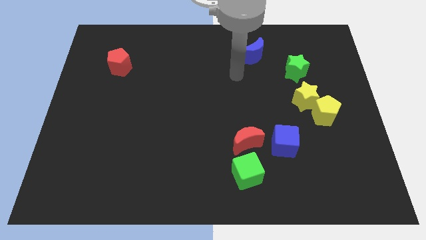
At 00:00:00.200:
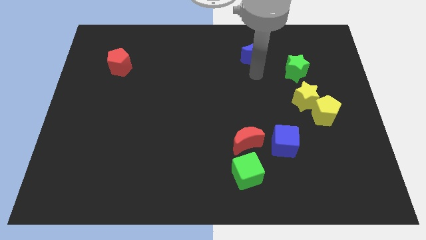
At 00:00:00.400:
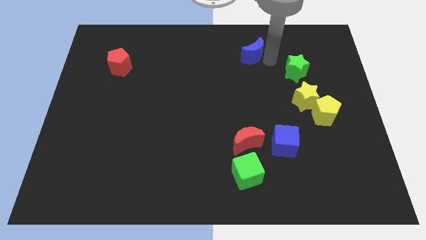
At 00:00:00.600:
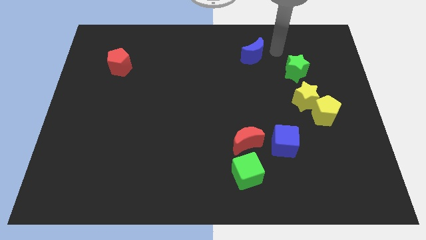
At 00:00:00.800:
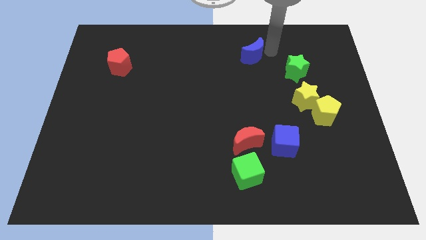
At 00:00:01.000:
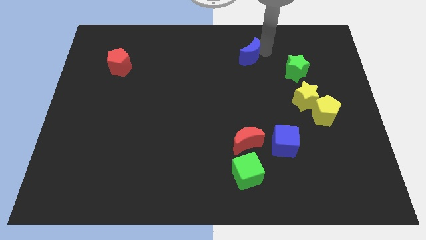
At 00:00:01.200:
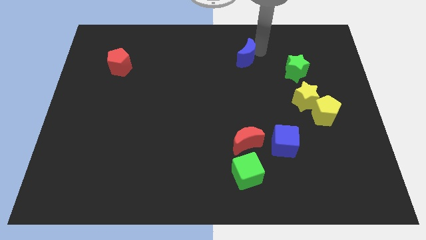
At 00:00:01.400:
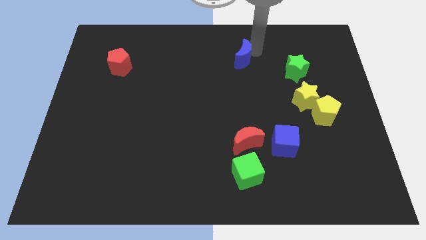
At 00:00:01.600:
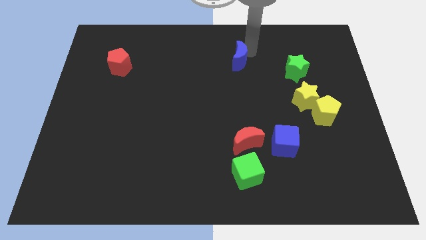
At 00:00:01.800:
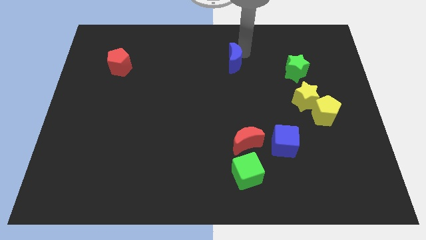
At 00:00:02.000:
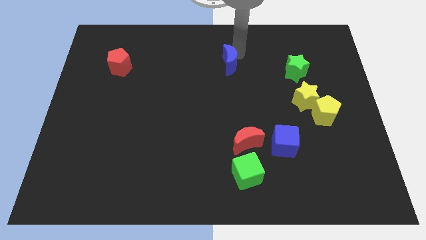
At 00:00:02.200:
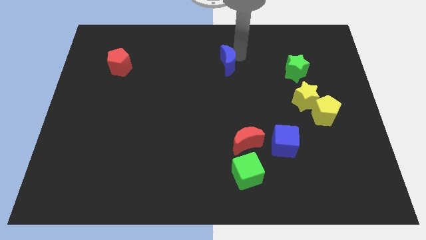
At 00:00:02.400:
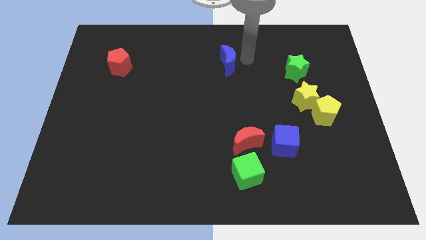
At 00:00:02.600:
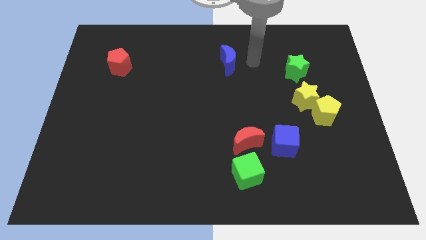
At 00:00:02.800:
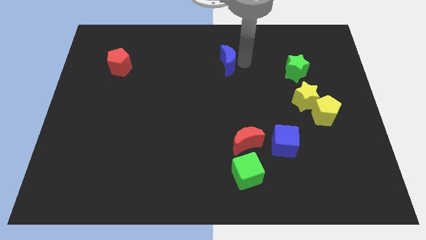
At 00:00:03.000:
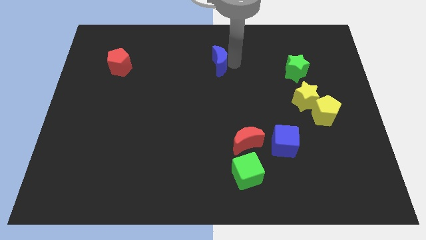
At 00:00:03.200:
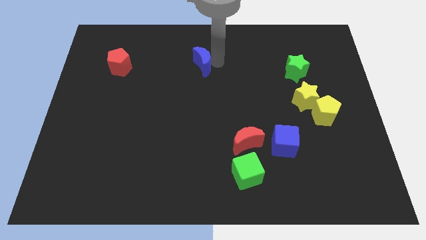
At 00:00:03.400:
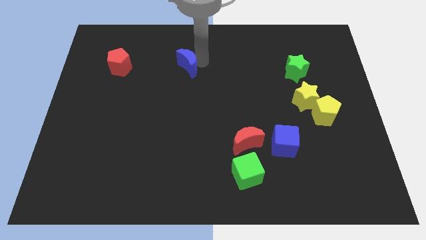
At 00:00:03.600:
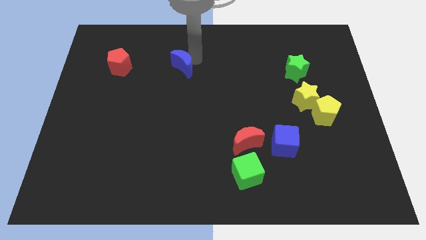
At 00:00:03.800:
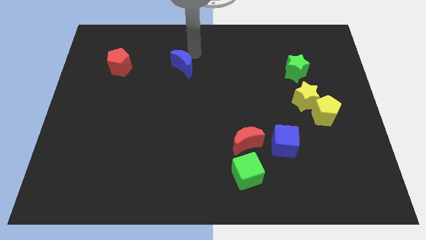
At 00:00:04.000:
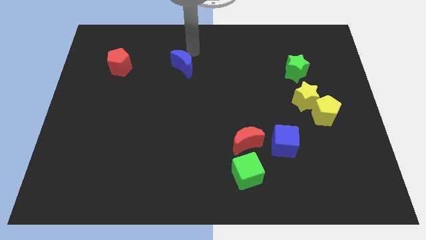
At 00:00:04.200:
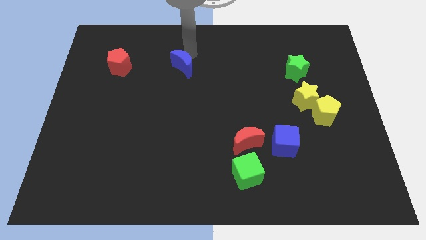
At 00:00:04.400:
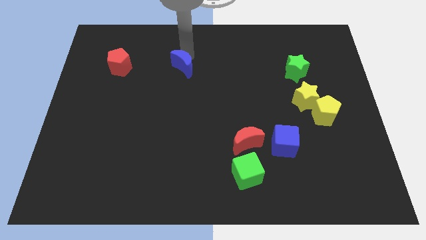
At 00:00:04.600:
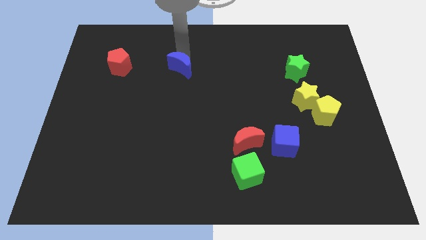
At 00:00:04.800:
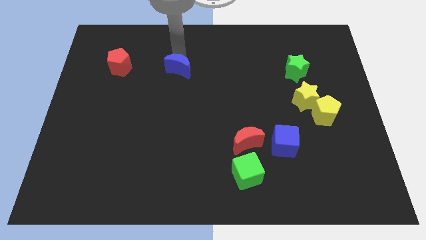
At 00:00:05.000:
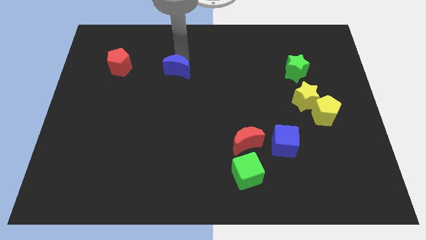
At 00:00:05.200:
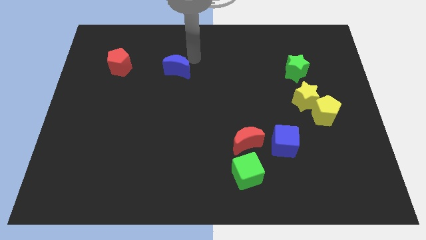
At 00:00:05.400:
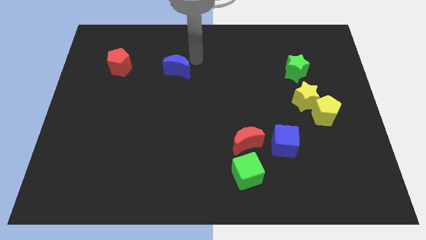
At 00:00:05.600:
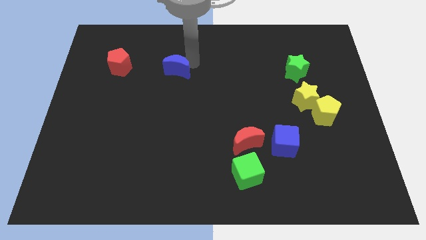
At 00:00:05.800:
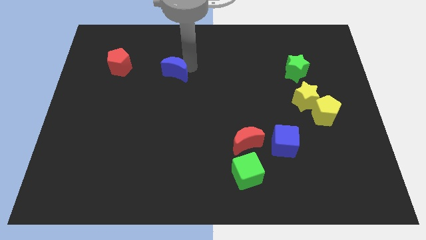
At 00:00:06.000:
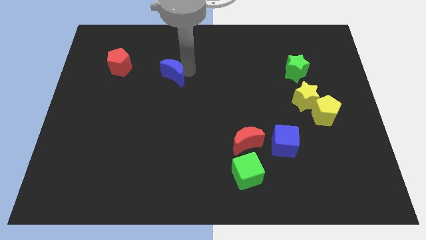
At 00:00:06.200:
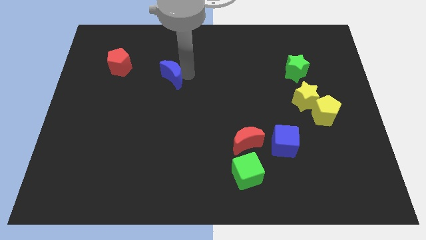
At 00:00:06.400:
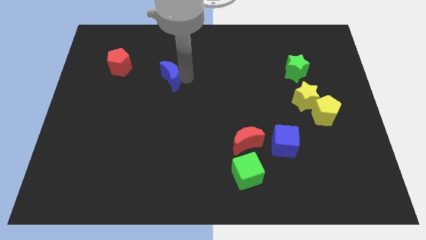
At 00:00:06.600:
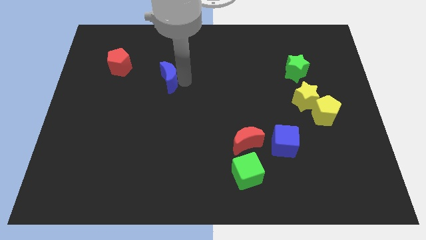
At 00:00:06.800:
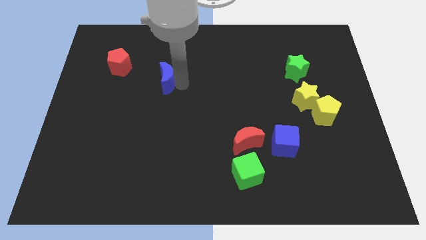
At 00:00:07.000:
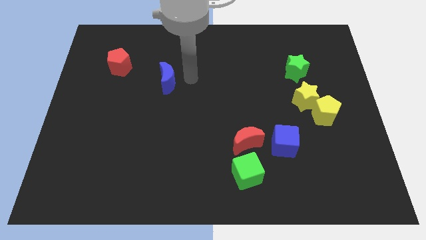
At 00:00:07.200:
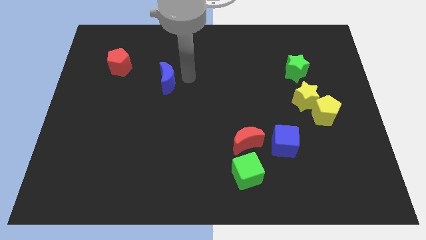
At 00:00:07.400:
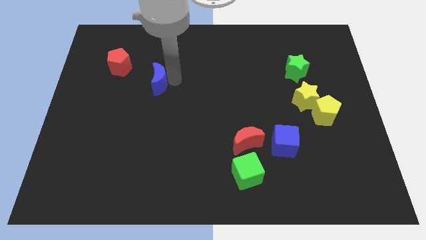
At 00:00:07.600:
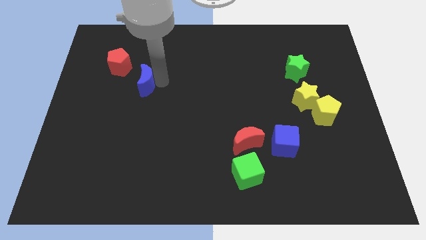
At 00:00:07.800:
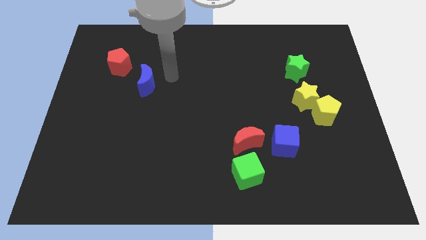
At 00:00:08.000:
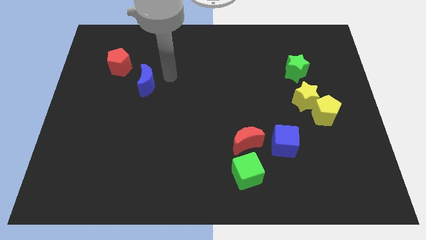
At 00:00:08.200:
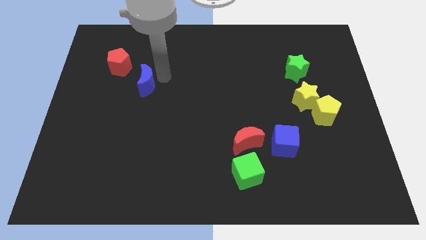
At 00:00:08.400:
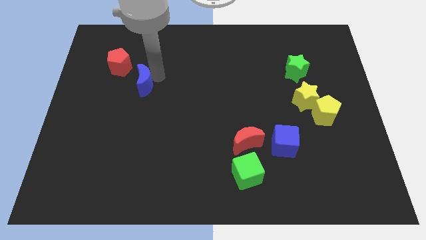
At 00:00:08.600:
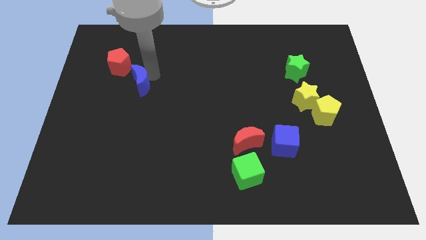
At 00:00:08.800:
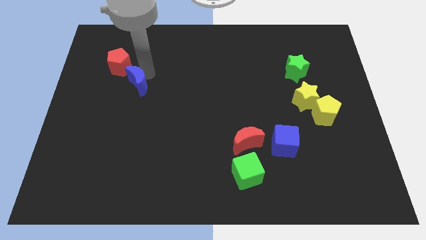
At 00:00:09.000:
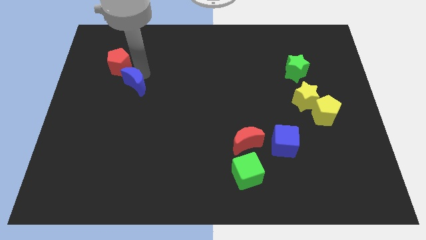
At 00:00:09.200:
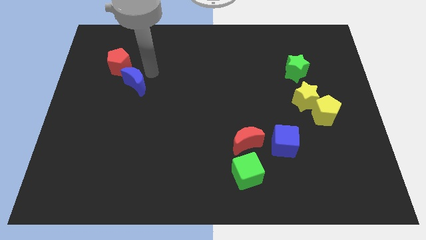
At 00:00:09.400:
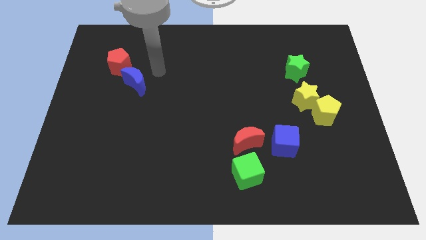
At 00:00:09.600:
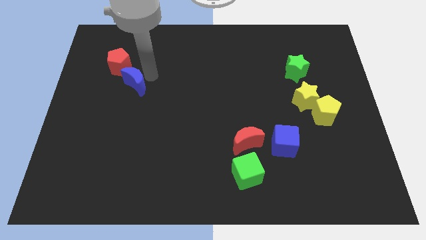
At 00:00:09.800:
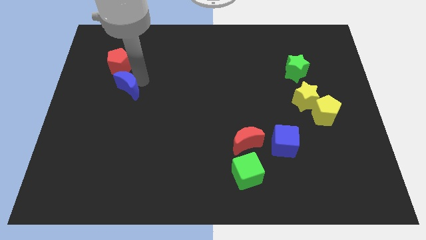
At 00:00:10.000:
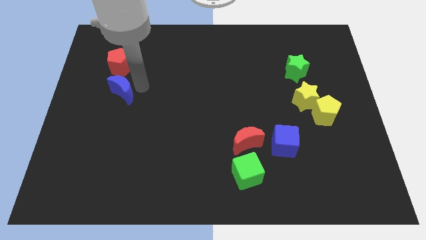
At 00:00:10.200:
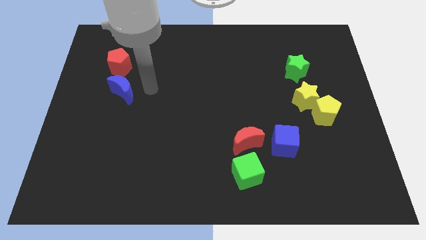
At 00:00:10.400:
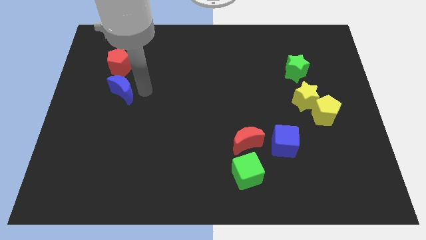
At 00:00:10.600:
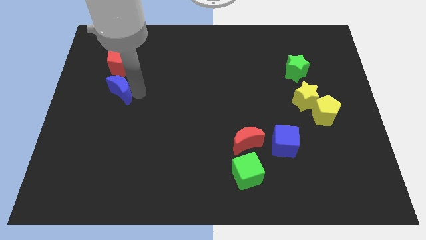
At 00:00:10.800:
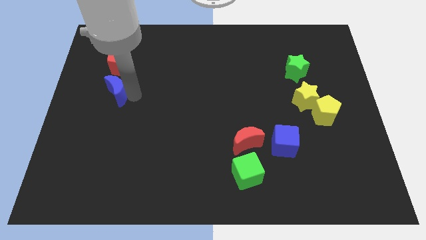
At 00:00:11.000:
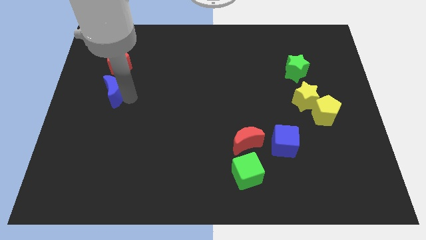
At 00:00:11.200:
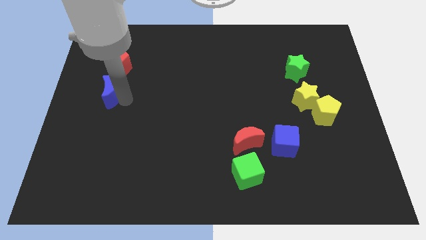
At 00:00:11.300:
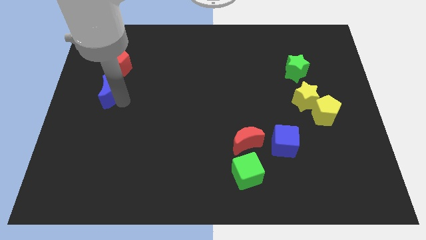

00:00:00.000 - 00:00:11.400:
put the blue moon to the left side of the board
